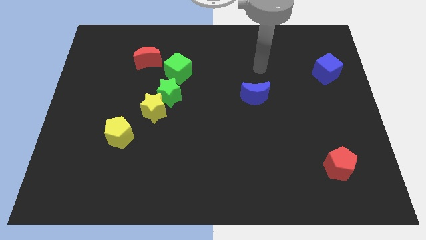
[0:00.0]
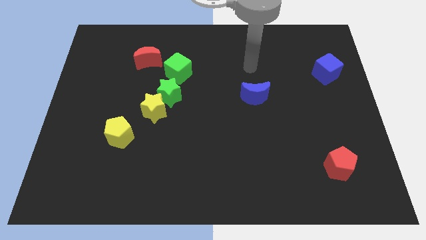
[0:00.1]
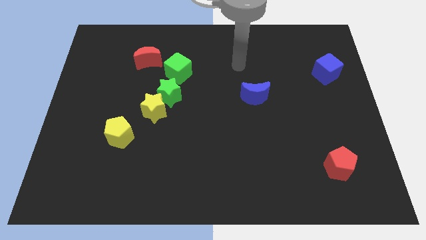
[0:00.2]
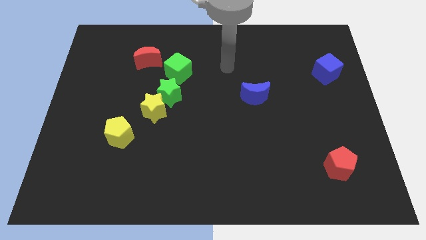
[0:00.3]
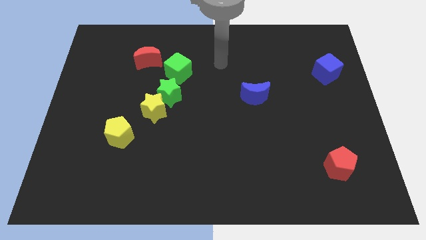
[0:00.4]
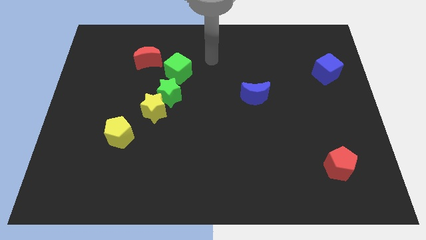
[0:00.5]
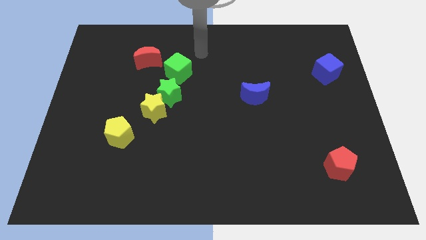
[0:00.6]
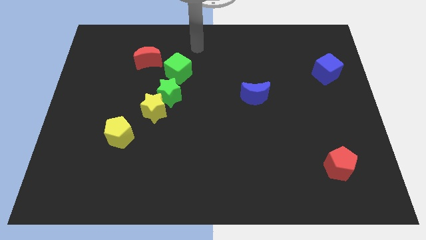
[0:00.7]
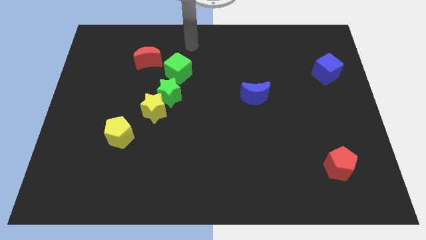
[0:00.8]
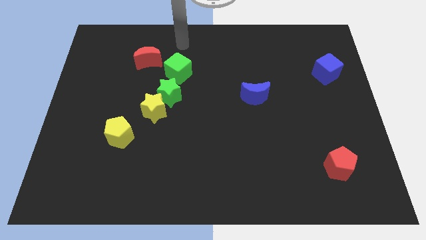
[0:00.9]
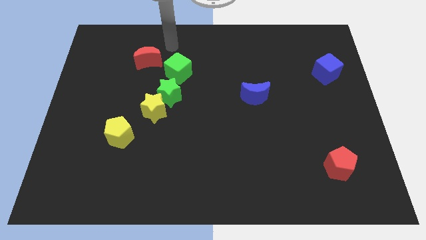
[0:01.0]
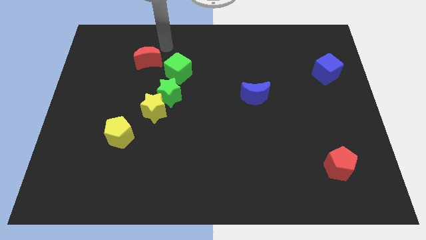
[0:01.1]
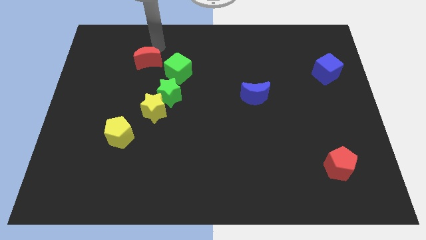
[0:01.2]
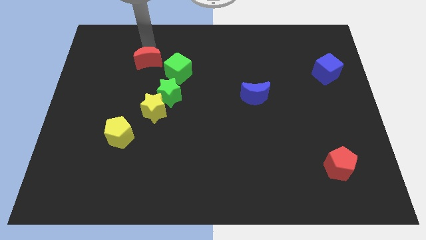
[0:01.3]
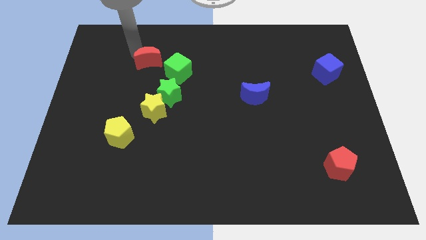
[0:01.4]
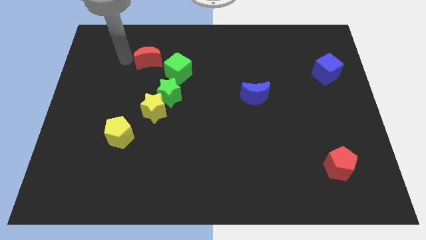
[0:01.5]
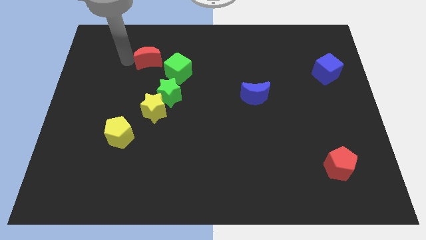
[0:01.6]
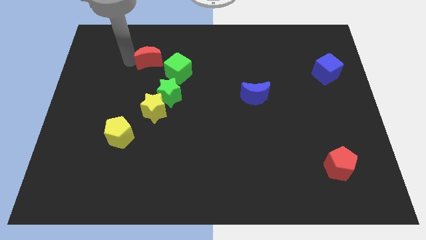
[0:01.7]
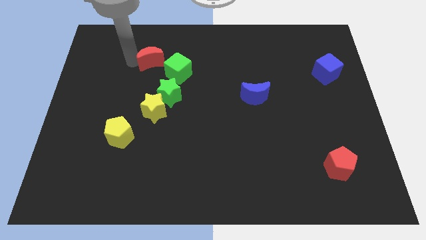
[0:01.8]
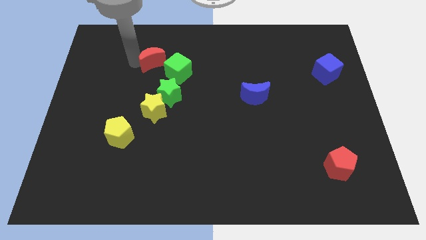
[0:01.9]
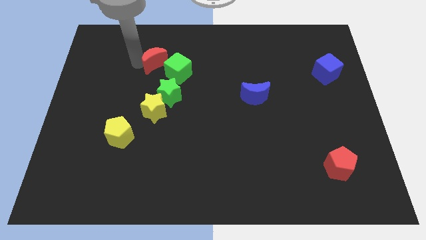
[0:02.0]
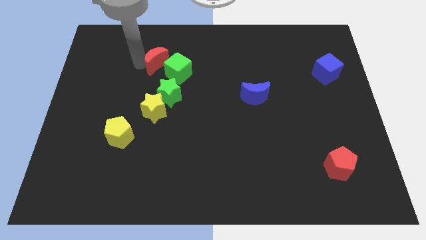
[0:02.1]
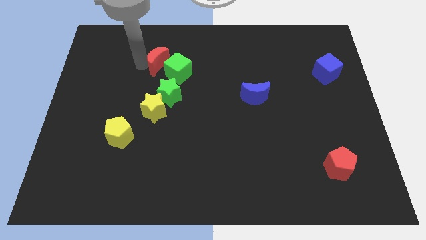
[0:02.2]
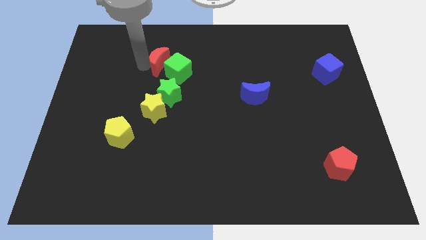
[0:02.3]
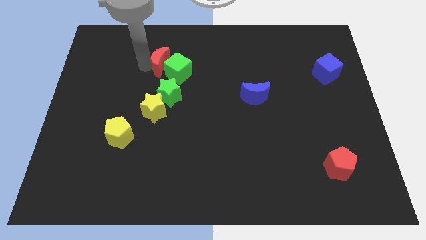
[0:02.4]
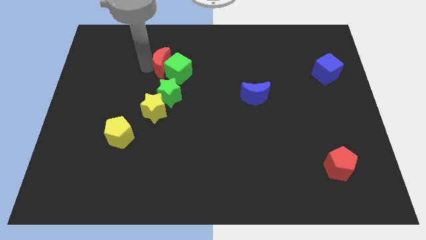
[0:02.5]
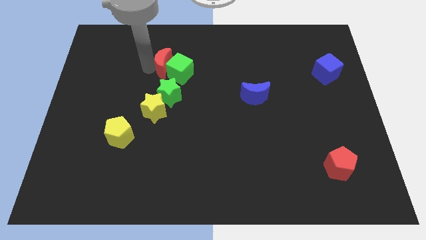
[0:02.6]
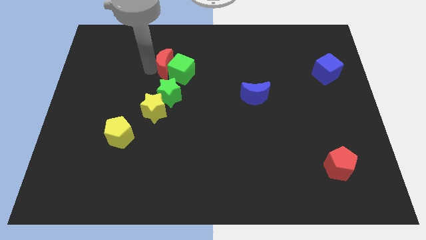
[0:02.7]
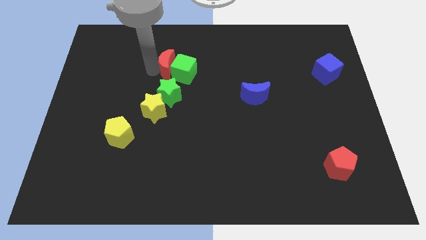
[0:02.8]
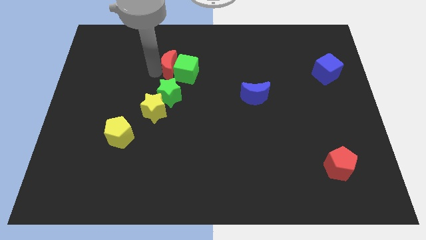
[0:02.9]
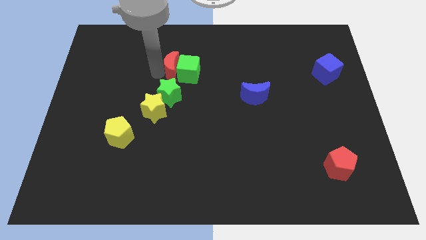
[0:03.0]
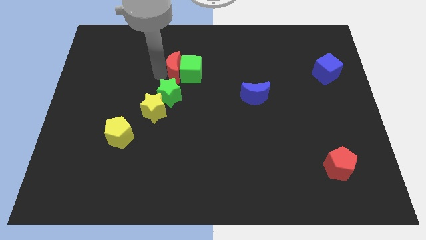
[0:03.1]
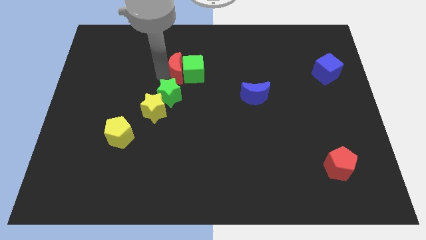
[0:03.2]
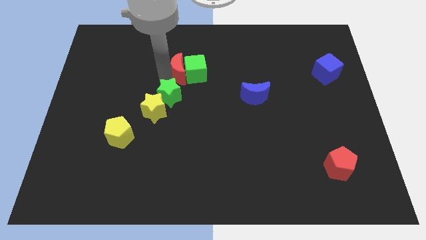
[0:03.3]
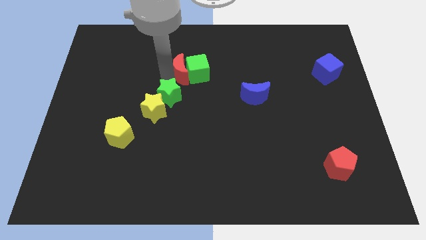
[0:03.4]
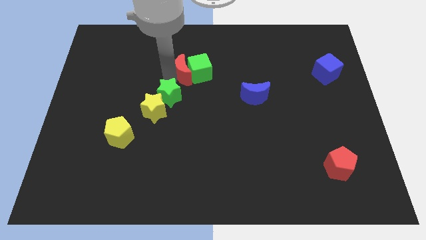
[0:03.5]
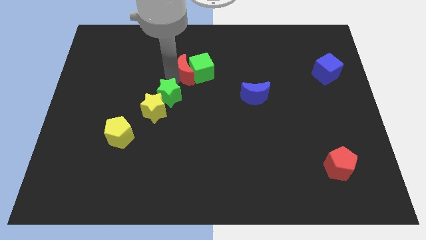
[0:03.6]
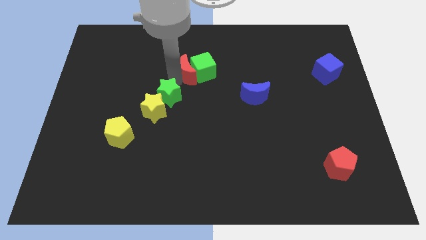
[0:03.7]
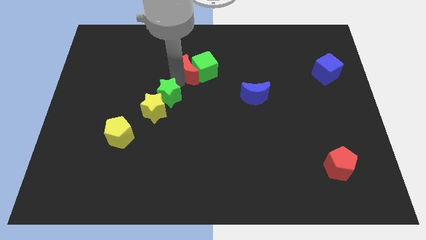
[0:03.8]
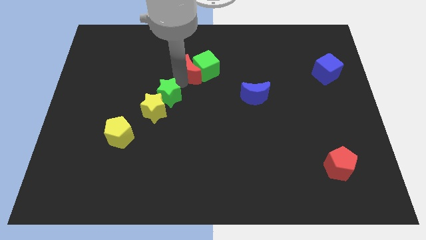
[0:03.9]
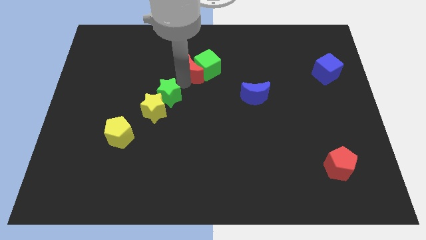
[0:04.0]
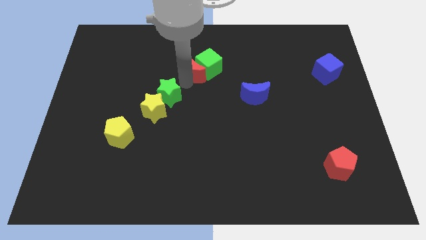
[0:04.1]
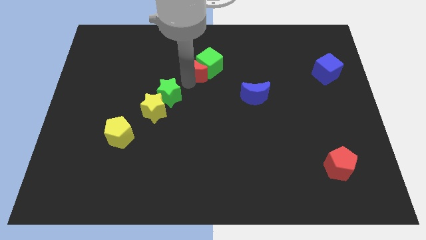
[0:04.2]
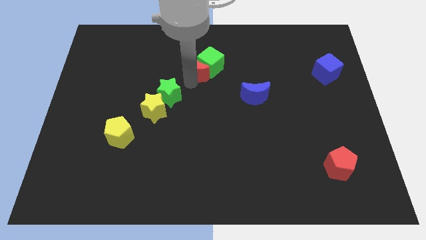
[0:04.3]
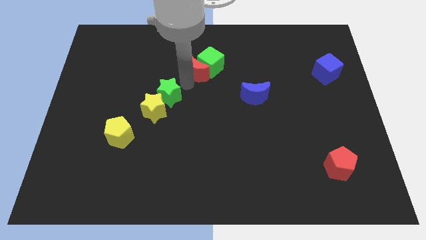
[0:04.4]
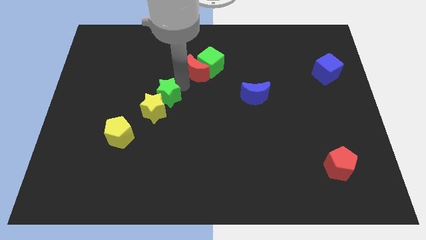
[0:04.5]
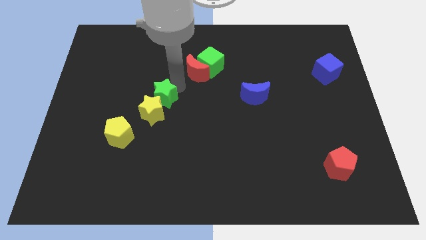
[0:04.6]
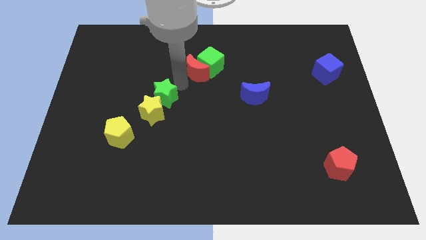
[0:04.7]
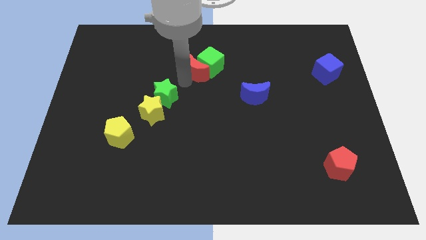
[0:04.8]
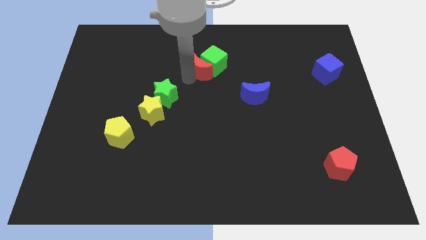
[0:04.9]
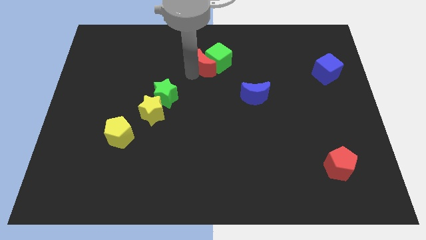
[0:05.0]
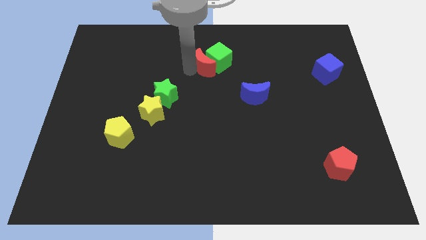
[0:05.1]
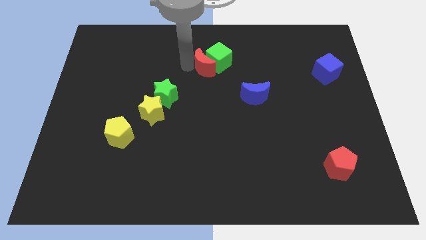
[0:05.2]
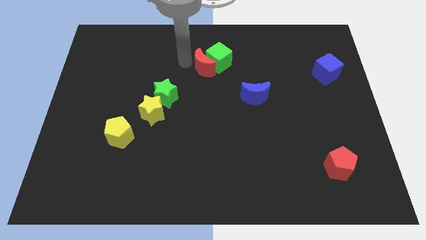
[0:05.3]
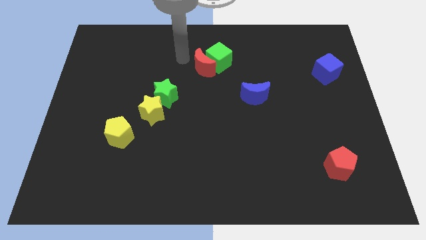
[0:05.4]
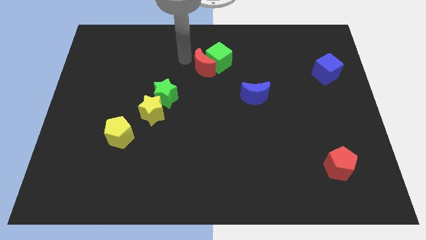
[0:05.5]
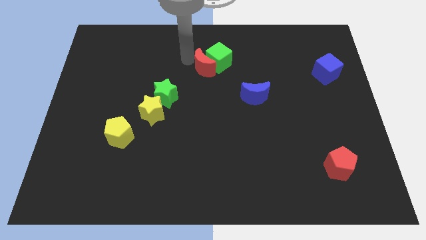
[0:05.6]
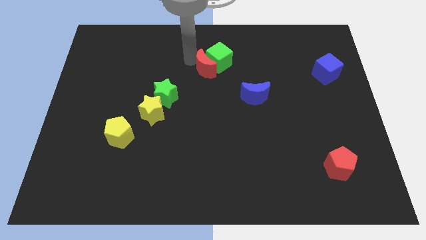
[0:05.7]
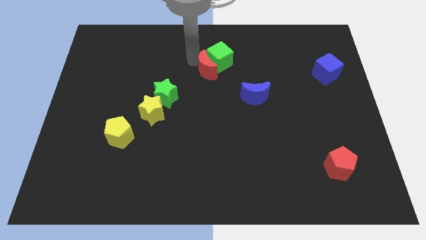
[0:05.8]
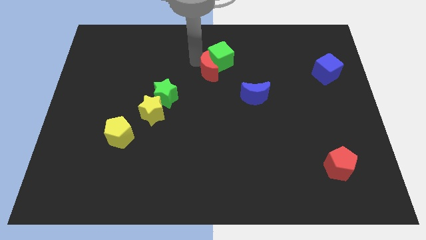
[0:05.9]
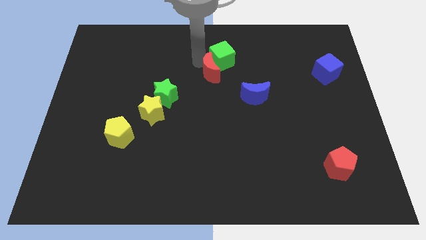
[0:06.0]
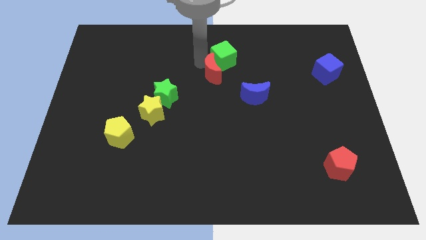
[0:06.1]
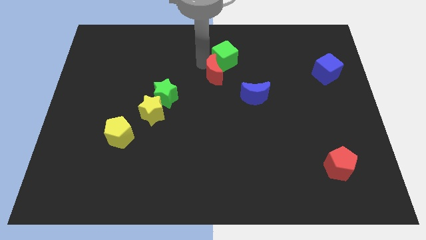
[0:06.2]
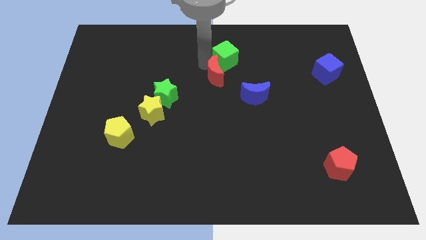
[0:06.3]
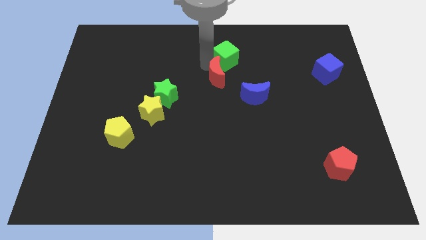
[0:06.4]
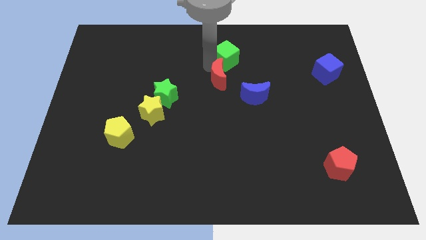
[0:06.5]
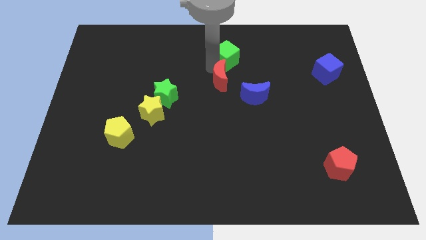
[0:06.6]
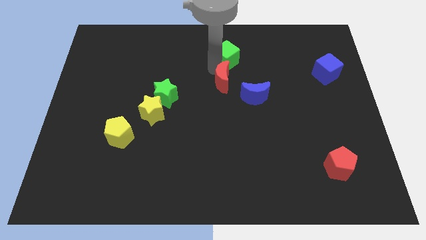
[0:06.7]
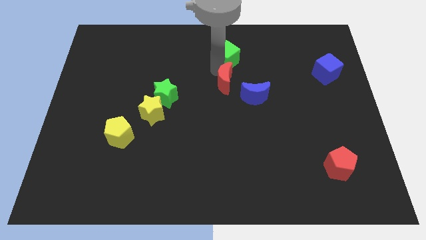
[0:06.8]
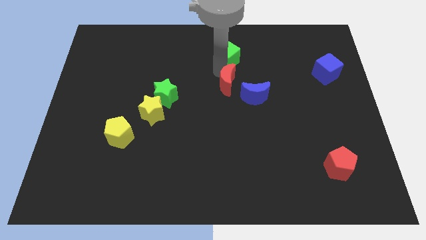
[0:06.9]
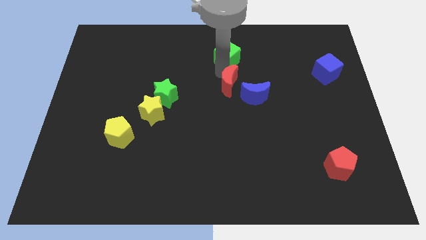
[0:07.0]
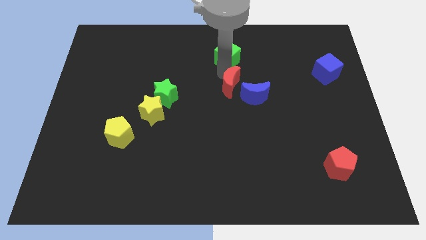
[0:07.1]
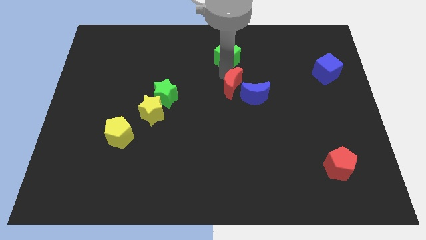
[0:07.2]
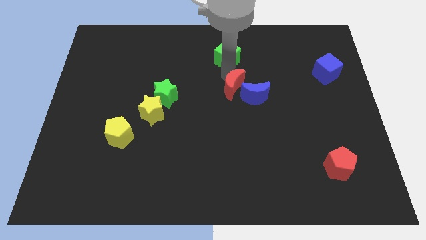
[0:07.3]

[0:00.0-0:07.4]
put the red moon close to the blue moon

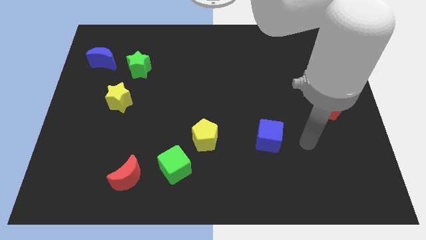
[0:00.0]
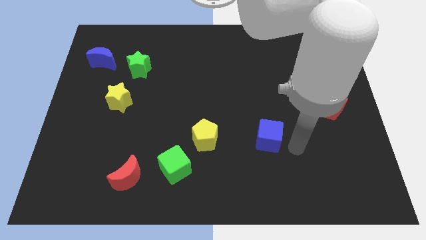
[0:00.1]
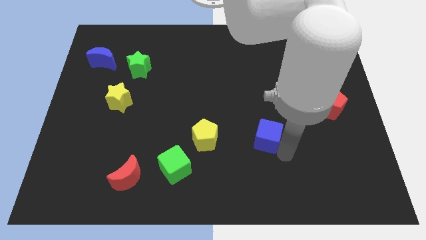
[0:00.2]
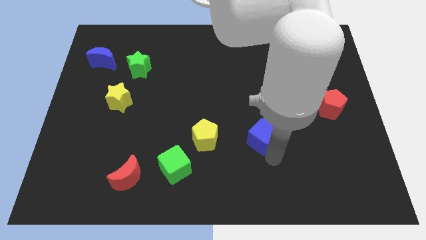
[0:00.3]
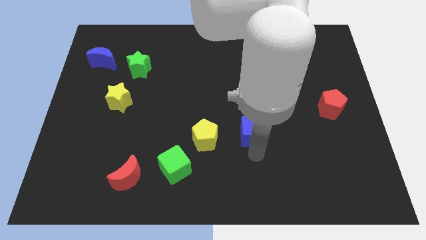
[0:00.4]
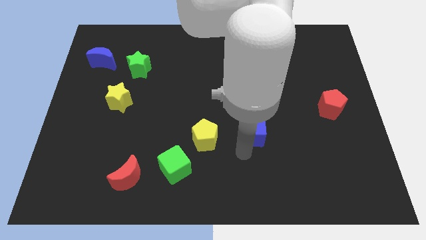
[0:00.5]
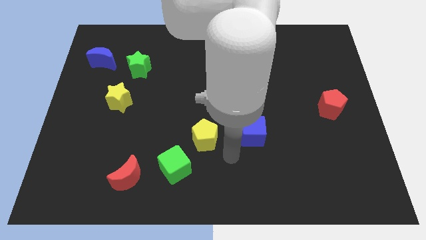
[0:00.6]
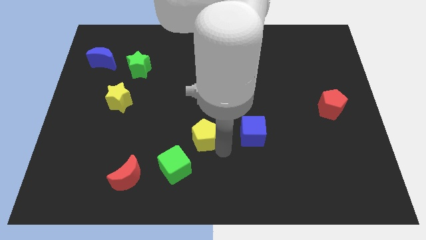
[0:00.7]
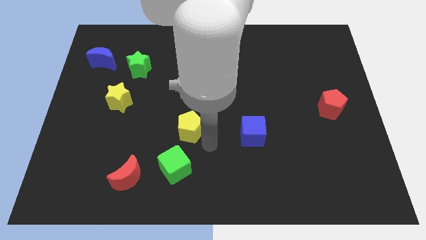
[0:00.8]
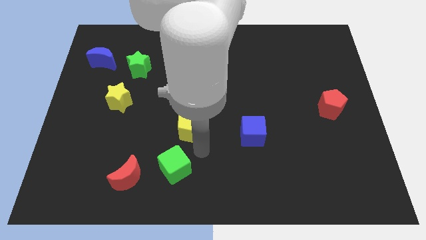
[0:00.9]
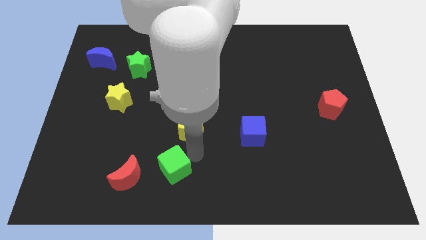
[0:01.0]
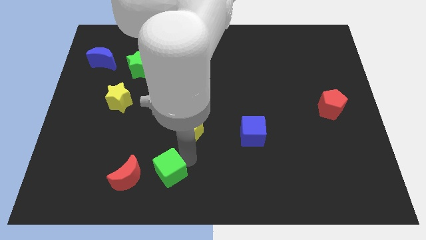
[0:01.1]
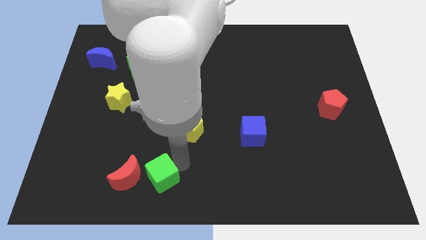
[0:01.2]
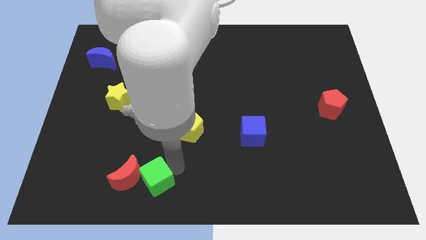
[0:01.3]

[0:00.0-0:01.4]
slide the green cube next to the red moon
